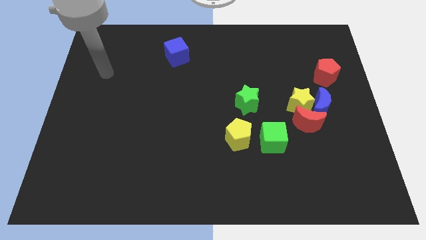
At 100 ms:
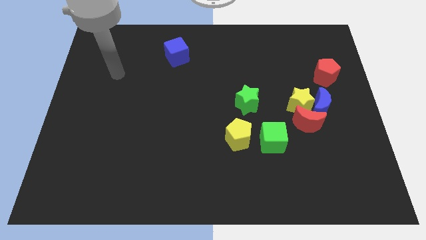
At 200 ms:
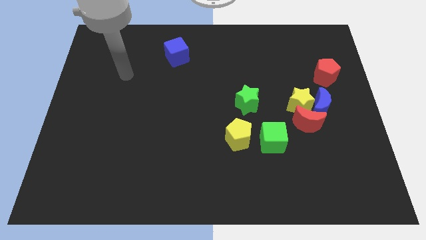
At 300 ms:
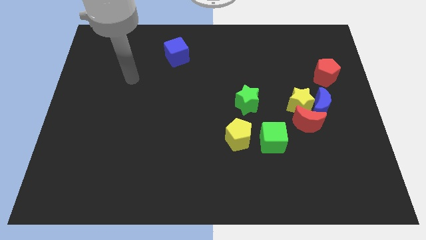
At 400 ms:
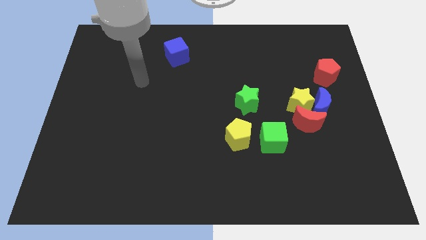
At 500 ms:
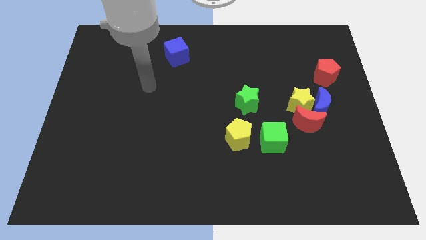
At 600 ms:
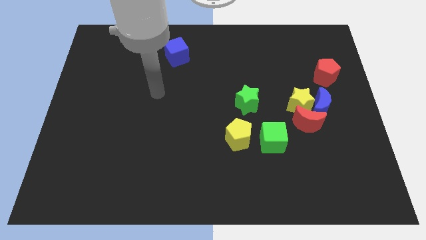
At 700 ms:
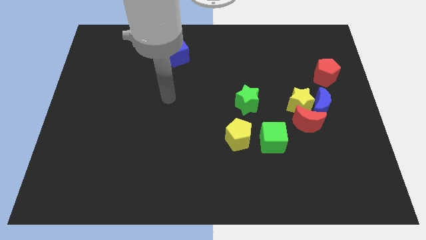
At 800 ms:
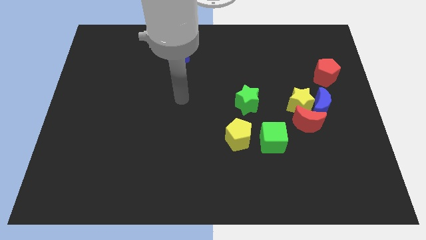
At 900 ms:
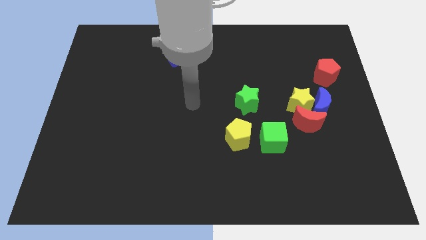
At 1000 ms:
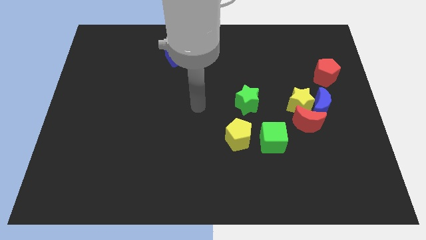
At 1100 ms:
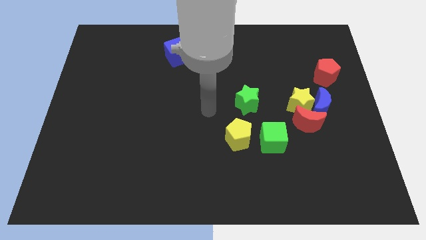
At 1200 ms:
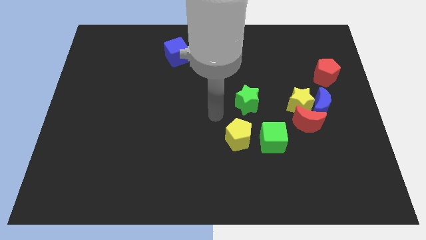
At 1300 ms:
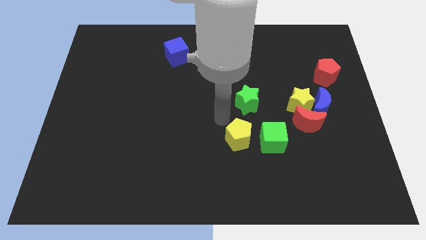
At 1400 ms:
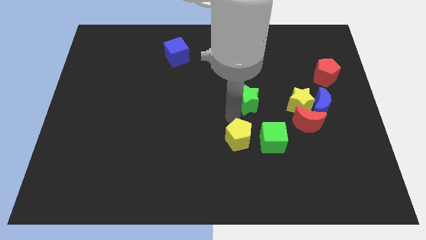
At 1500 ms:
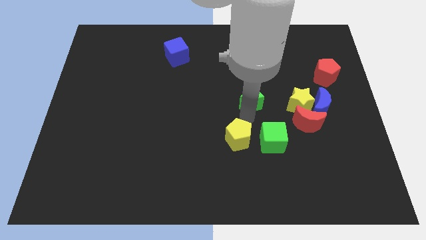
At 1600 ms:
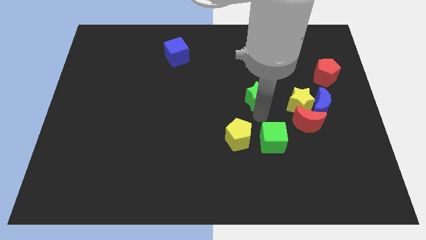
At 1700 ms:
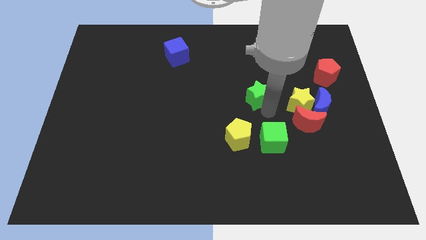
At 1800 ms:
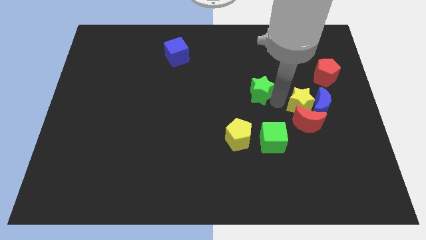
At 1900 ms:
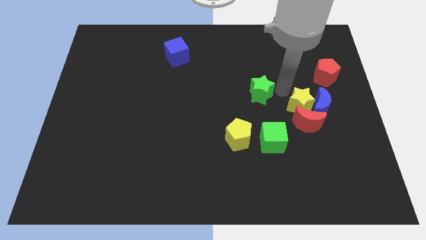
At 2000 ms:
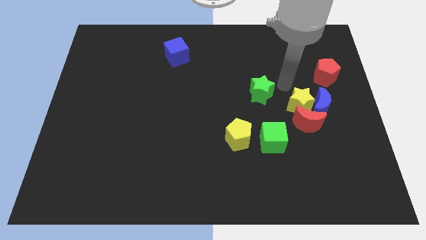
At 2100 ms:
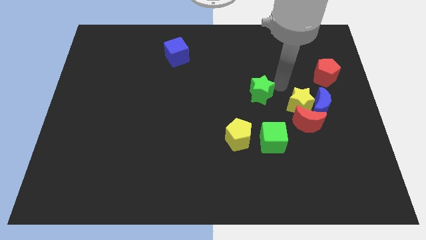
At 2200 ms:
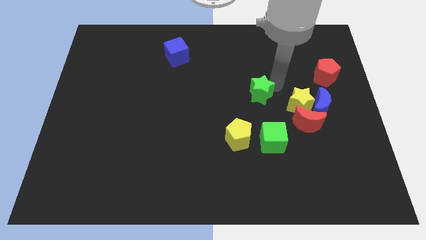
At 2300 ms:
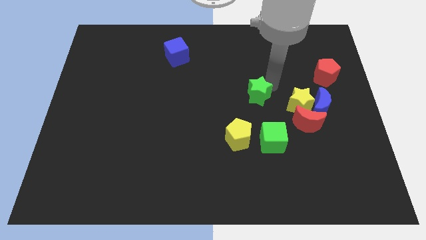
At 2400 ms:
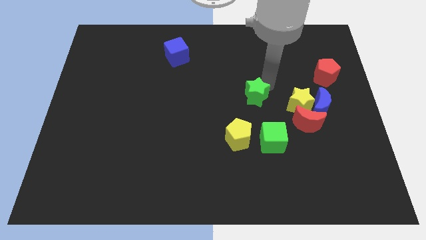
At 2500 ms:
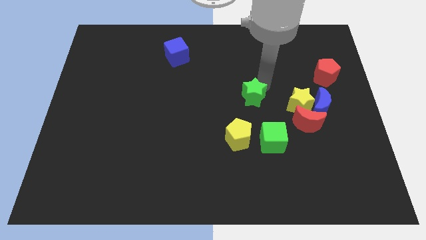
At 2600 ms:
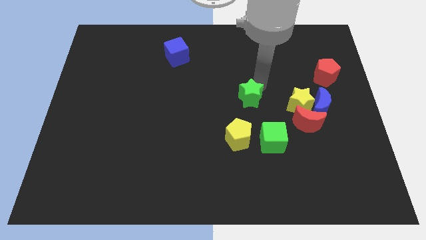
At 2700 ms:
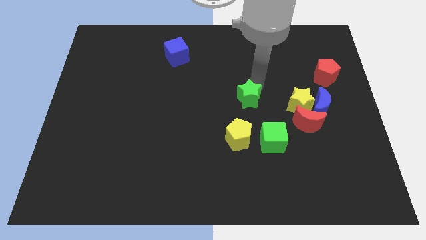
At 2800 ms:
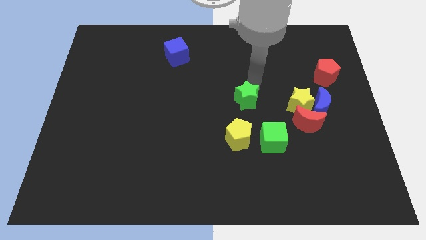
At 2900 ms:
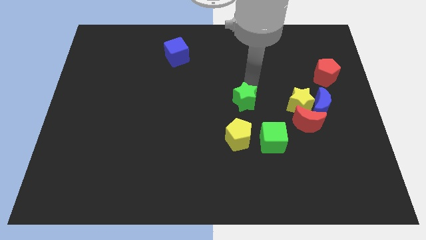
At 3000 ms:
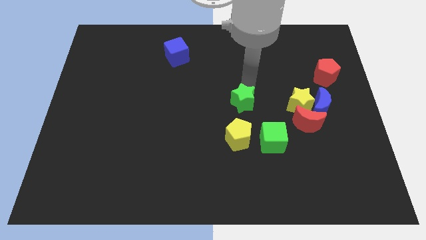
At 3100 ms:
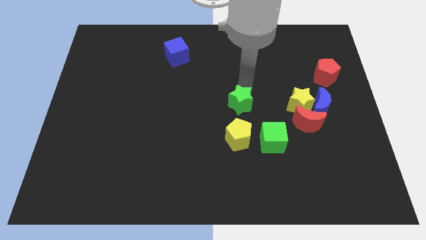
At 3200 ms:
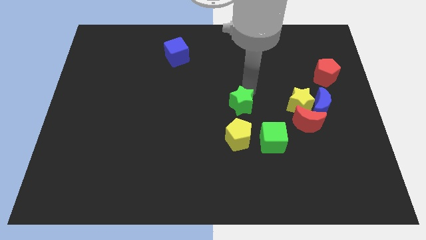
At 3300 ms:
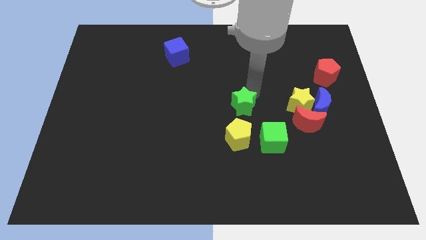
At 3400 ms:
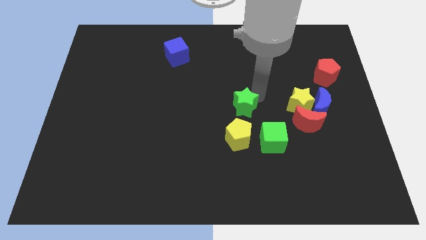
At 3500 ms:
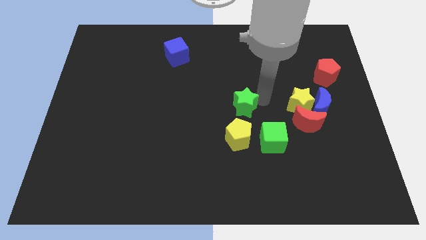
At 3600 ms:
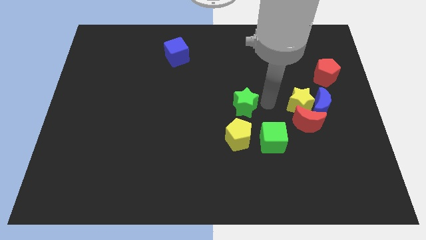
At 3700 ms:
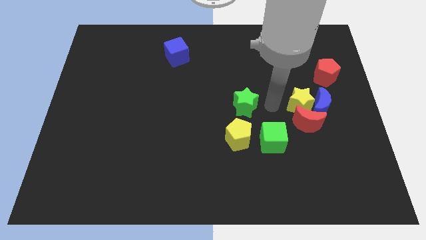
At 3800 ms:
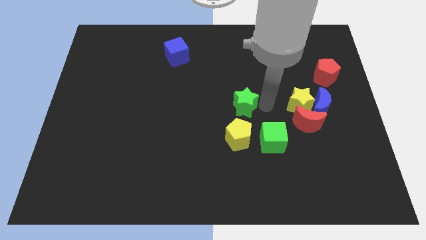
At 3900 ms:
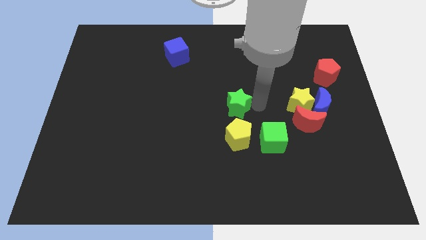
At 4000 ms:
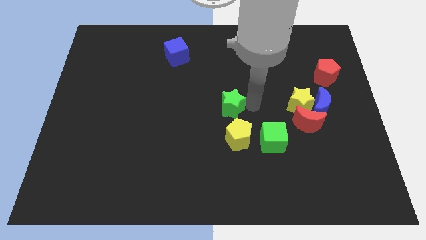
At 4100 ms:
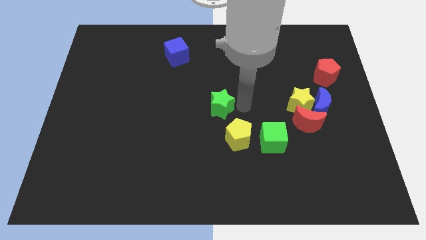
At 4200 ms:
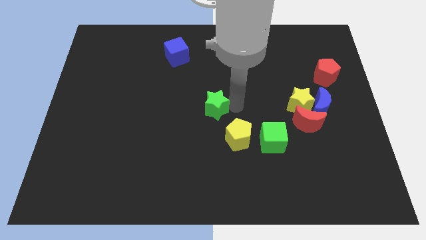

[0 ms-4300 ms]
slightly push the green star left

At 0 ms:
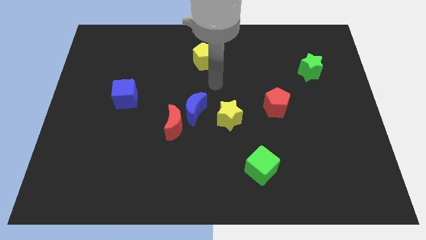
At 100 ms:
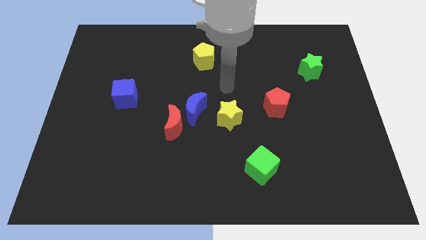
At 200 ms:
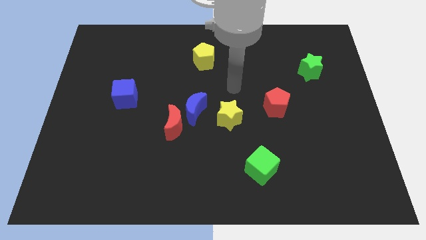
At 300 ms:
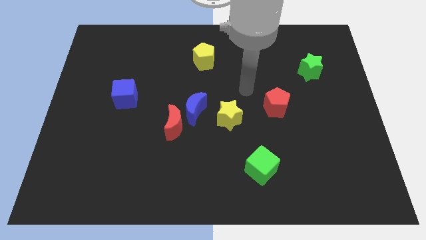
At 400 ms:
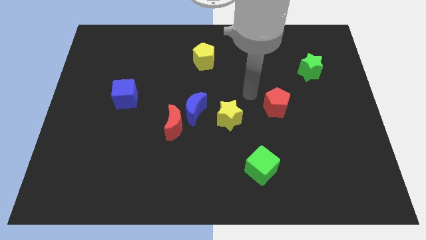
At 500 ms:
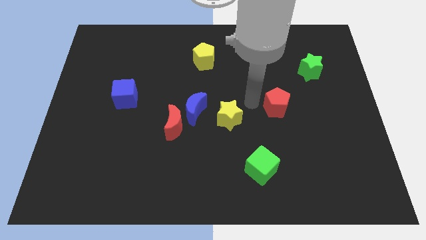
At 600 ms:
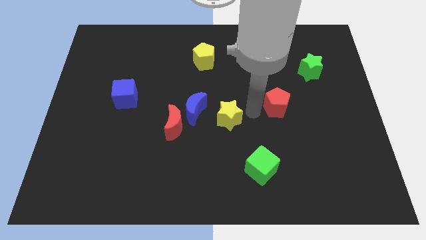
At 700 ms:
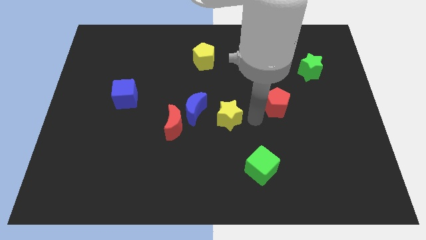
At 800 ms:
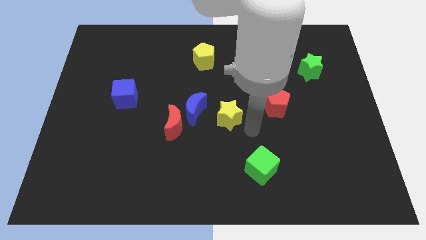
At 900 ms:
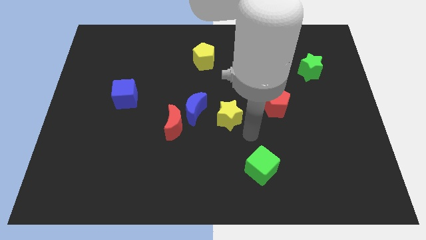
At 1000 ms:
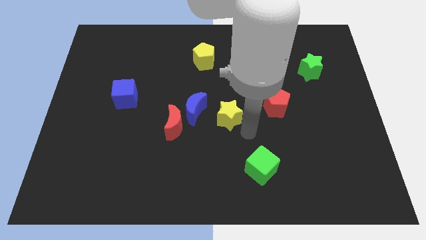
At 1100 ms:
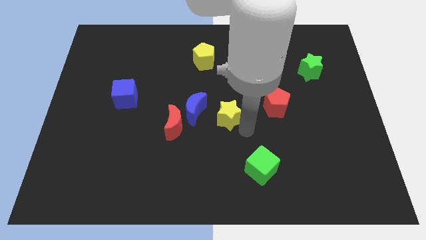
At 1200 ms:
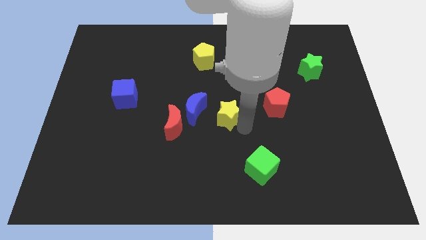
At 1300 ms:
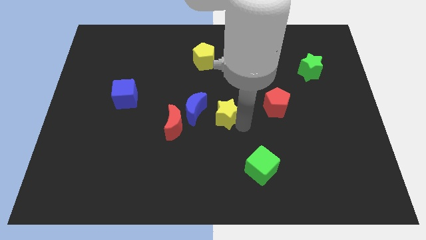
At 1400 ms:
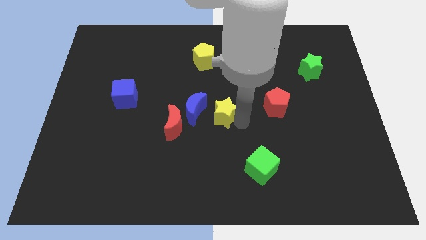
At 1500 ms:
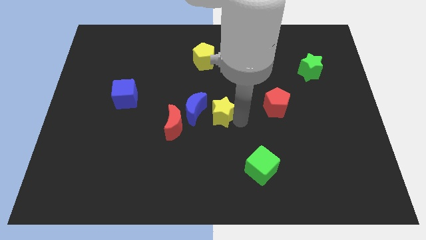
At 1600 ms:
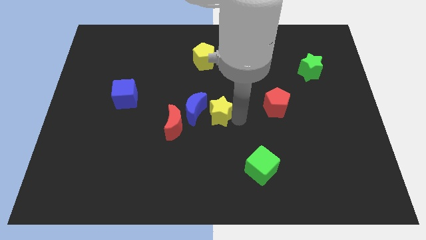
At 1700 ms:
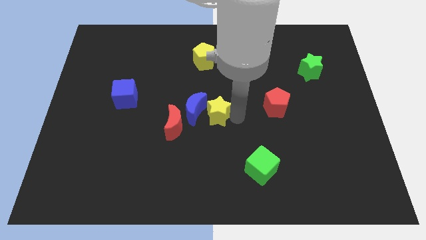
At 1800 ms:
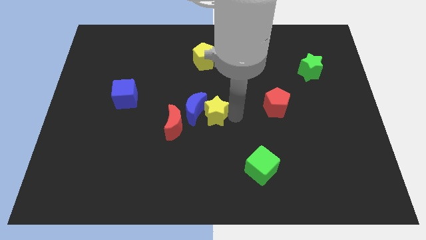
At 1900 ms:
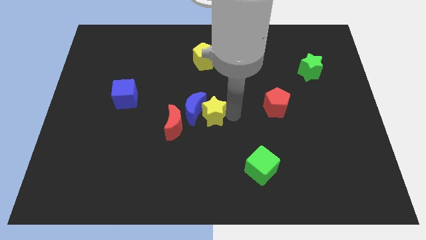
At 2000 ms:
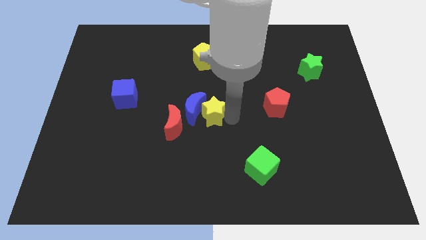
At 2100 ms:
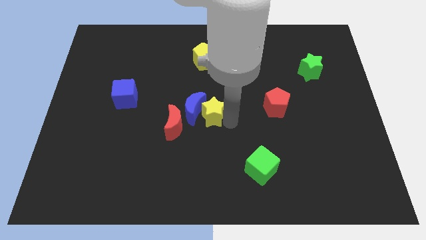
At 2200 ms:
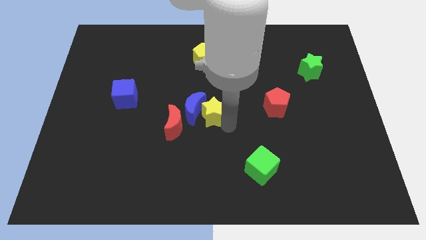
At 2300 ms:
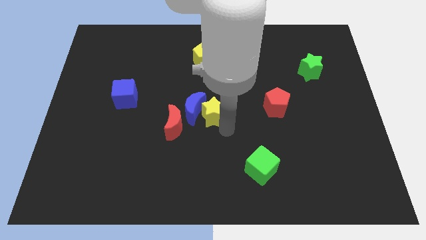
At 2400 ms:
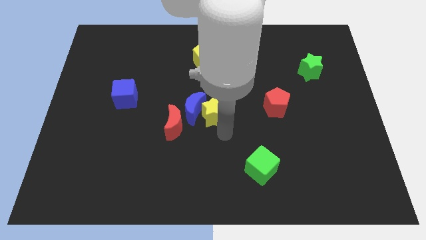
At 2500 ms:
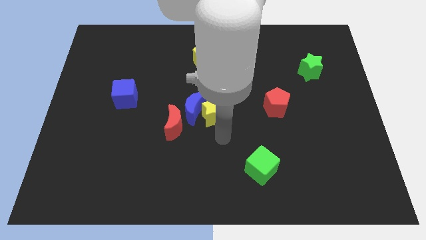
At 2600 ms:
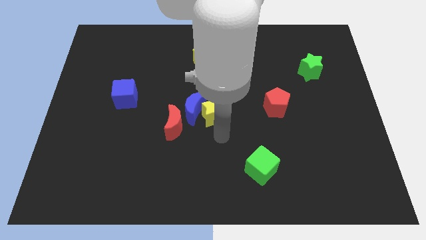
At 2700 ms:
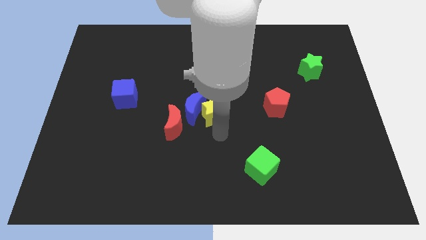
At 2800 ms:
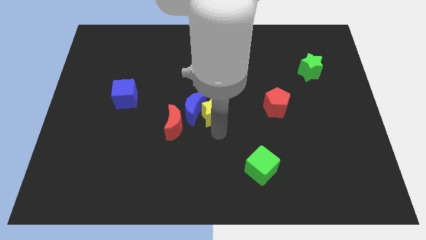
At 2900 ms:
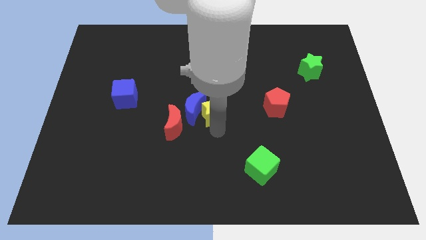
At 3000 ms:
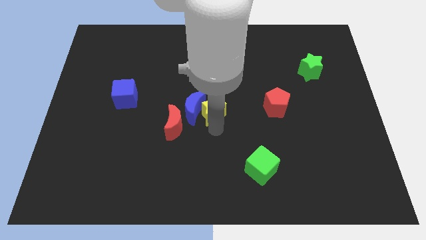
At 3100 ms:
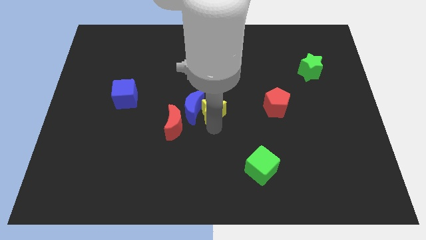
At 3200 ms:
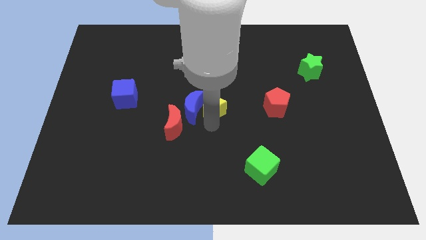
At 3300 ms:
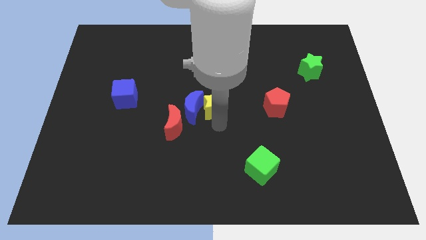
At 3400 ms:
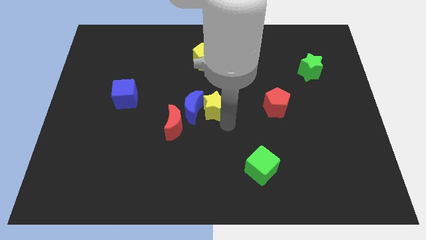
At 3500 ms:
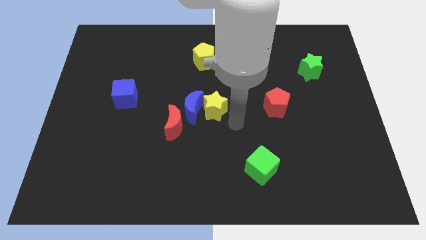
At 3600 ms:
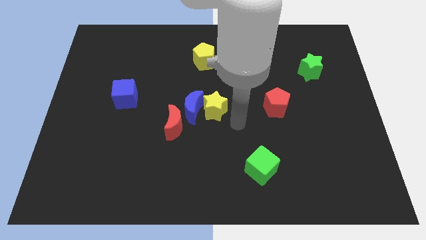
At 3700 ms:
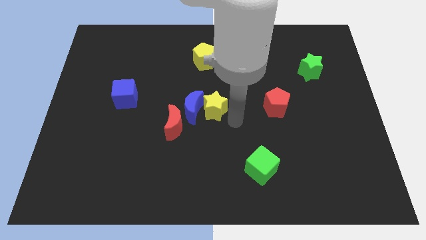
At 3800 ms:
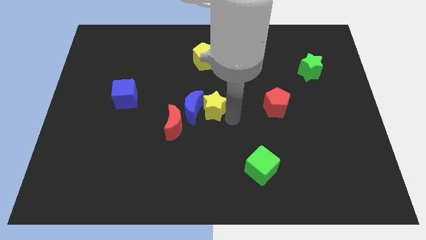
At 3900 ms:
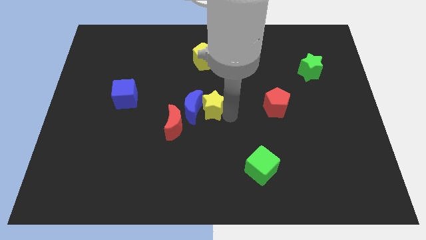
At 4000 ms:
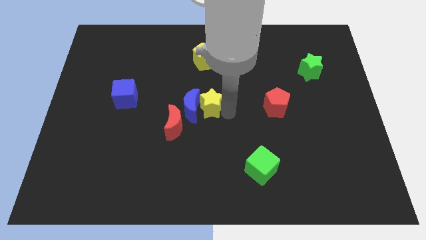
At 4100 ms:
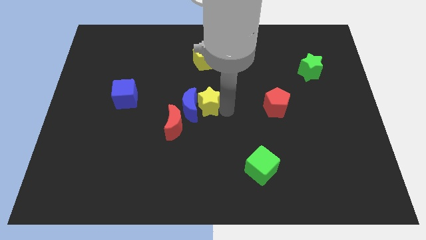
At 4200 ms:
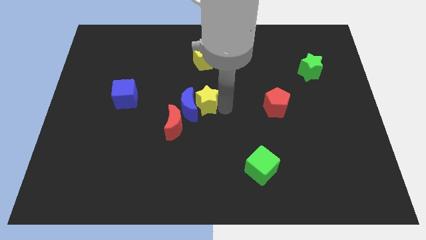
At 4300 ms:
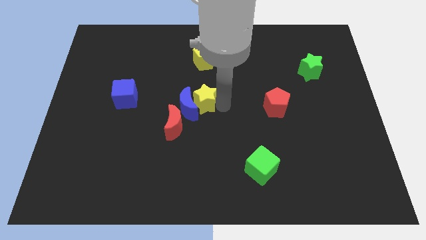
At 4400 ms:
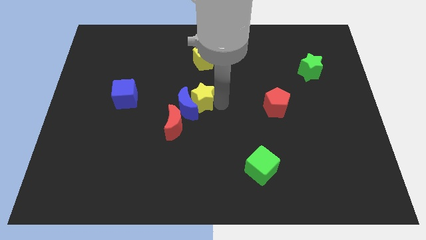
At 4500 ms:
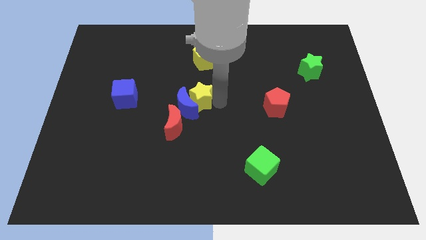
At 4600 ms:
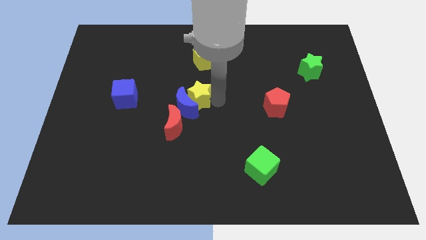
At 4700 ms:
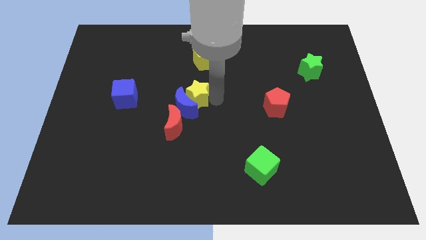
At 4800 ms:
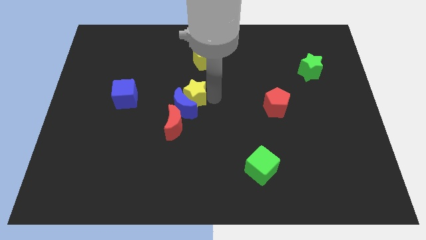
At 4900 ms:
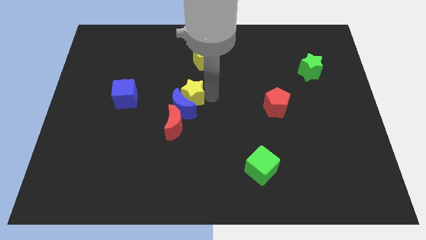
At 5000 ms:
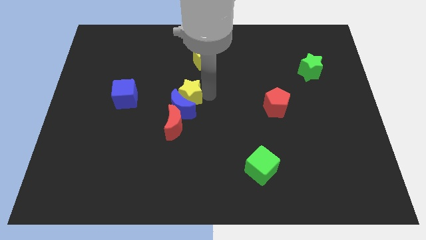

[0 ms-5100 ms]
push the yellow star a little to the left
